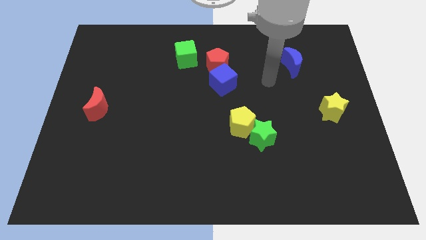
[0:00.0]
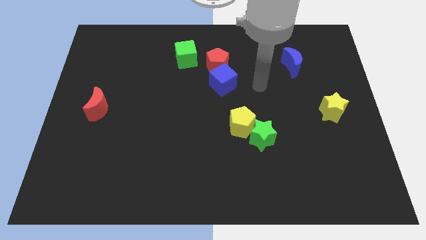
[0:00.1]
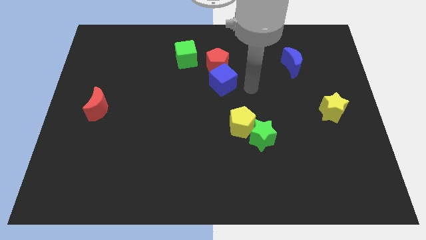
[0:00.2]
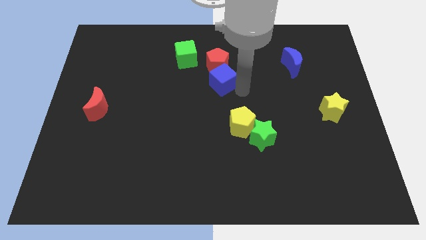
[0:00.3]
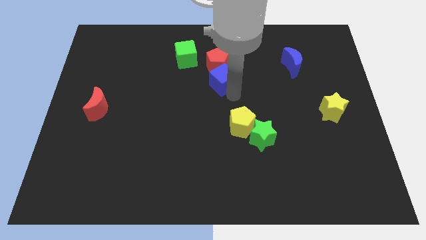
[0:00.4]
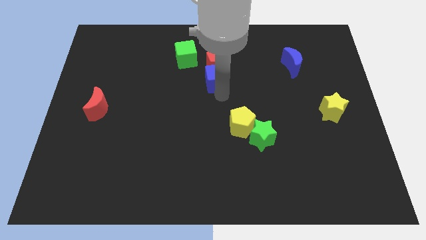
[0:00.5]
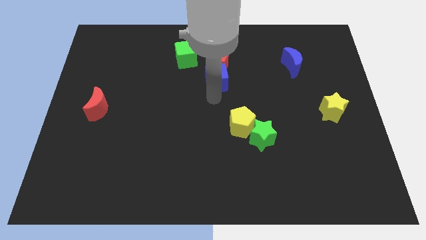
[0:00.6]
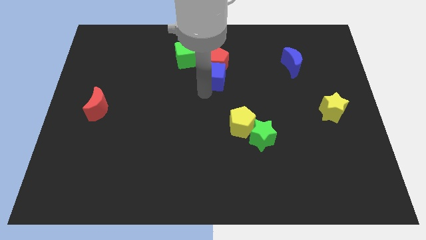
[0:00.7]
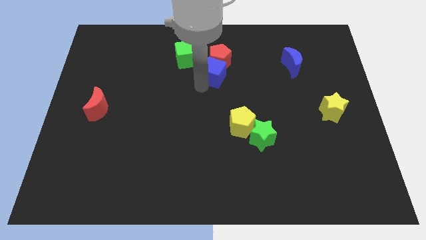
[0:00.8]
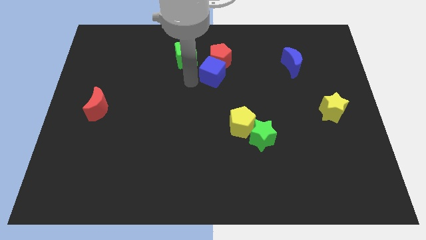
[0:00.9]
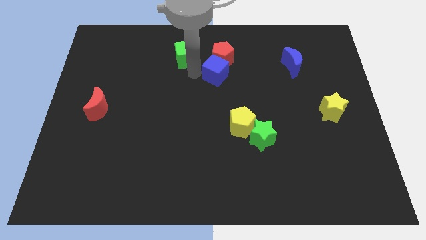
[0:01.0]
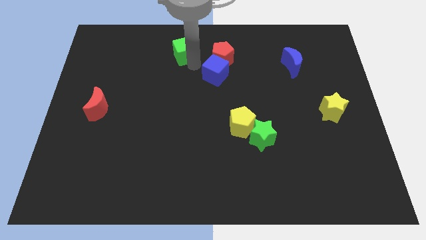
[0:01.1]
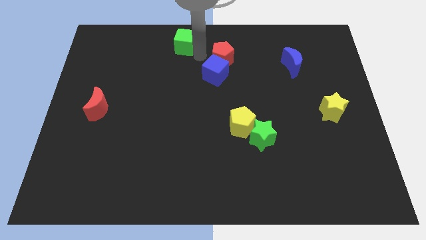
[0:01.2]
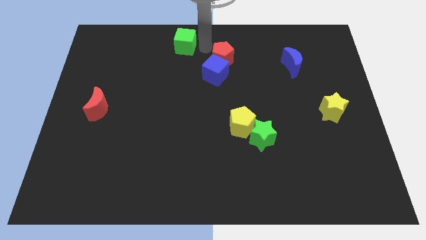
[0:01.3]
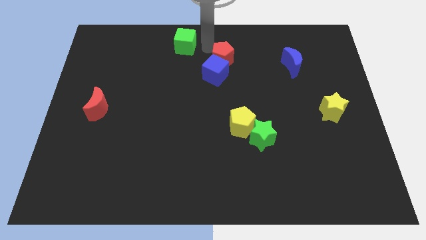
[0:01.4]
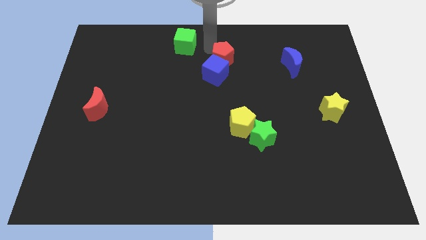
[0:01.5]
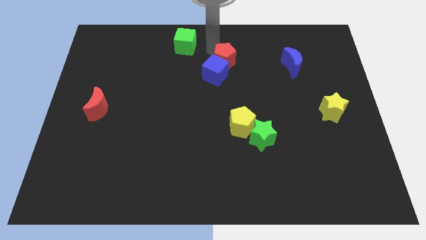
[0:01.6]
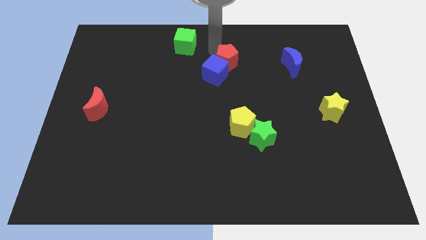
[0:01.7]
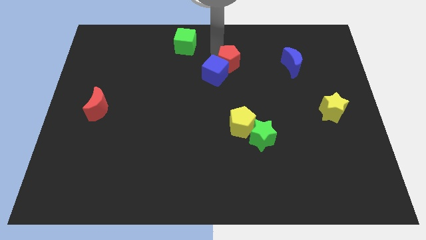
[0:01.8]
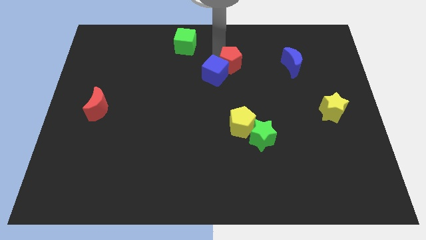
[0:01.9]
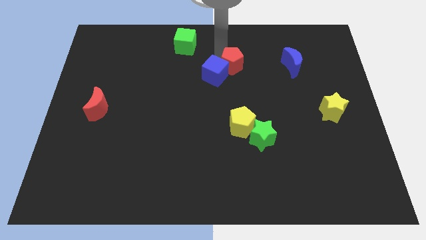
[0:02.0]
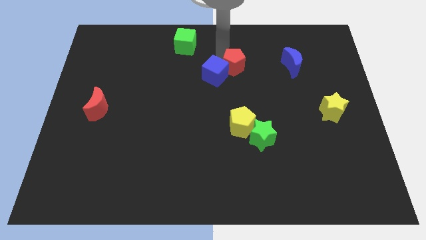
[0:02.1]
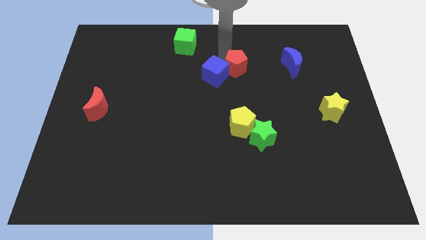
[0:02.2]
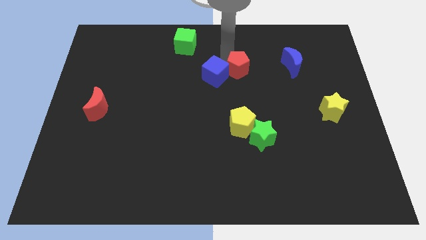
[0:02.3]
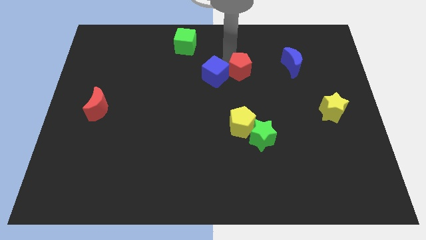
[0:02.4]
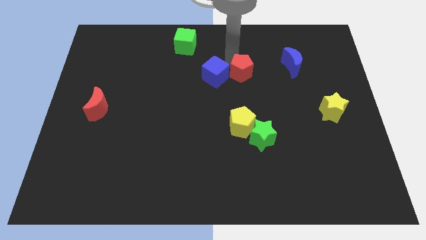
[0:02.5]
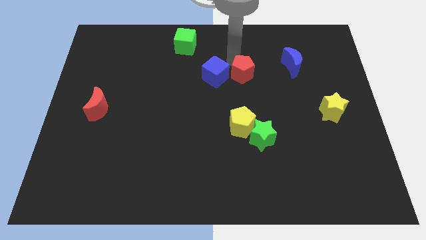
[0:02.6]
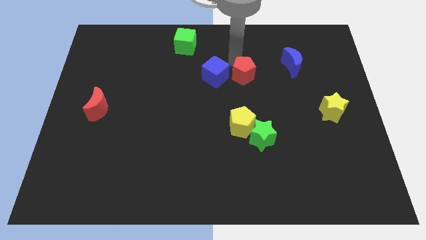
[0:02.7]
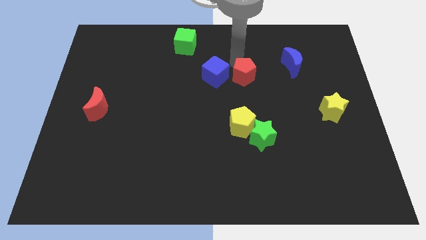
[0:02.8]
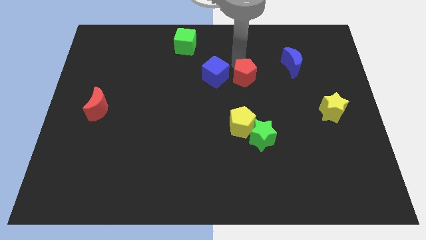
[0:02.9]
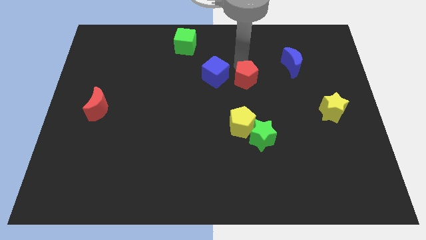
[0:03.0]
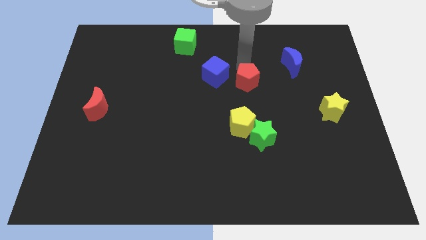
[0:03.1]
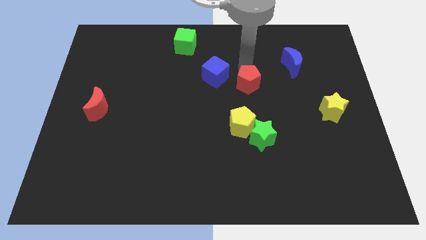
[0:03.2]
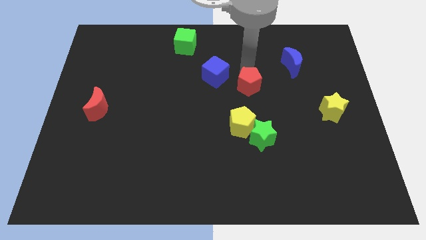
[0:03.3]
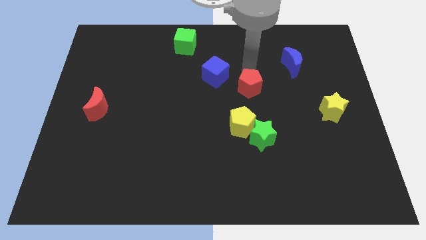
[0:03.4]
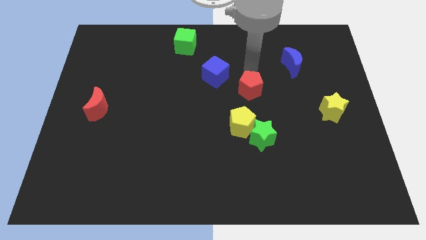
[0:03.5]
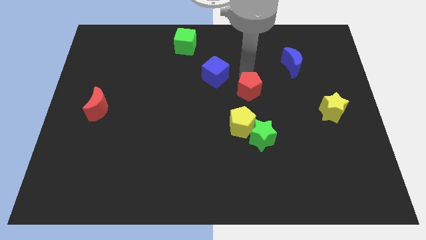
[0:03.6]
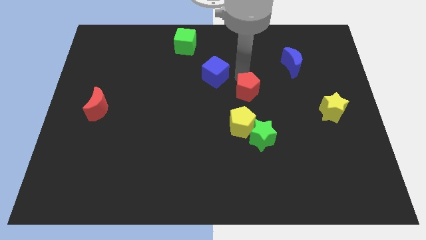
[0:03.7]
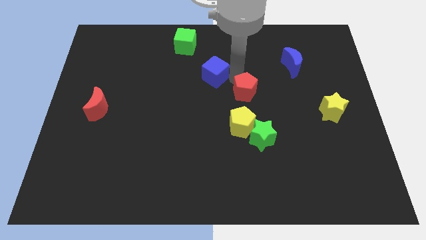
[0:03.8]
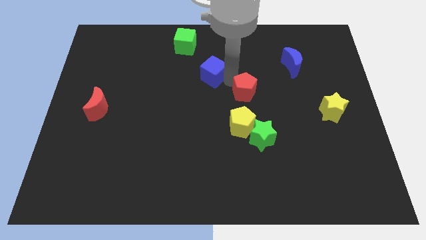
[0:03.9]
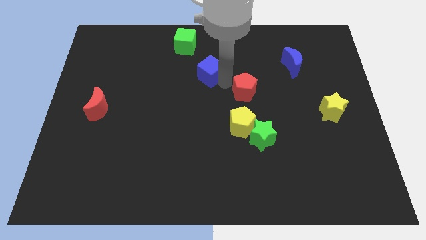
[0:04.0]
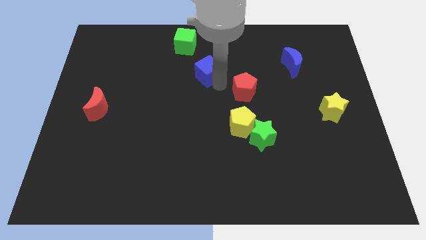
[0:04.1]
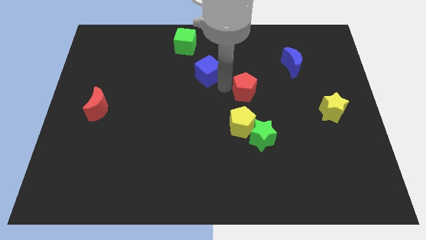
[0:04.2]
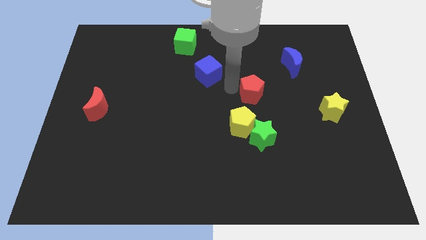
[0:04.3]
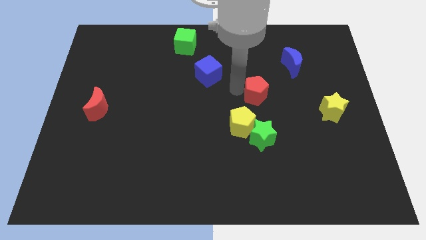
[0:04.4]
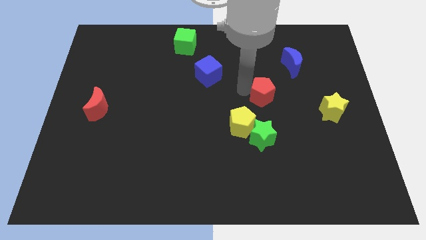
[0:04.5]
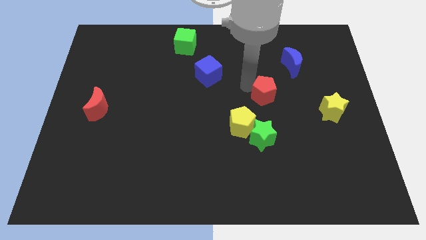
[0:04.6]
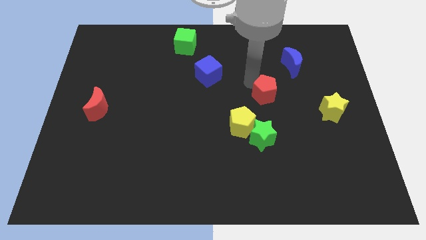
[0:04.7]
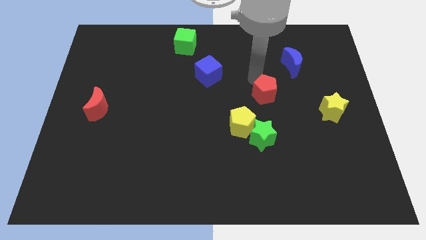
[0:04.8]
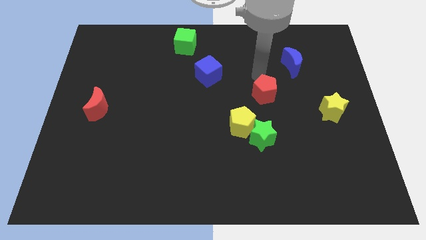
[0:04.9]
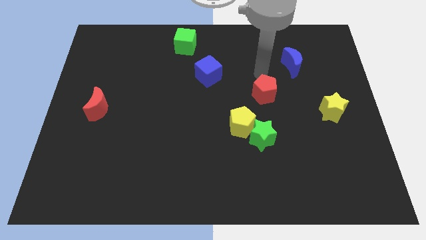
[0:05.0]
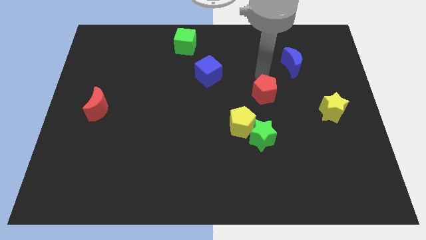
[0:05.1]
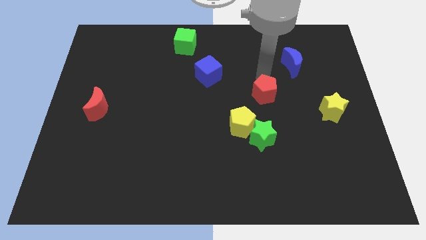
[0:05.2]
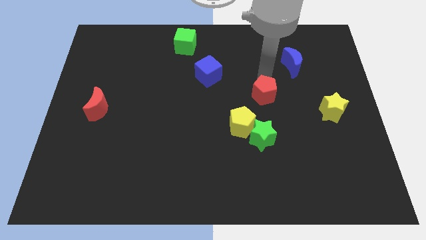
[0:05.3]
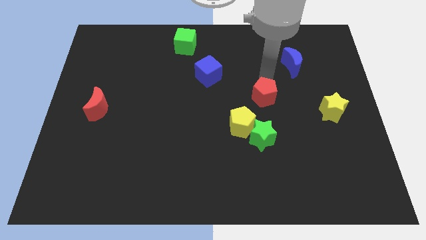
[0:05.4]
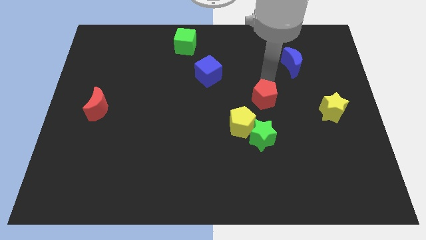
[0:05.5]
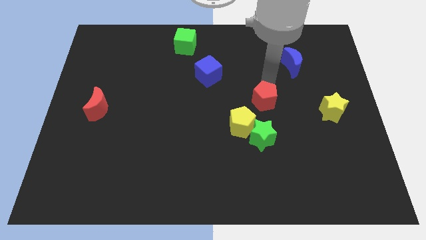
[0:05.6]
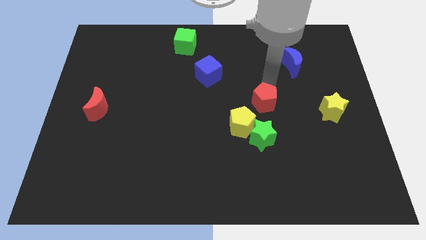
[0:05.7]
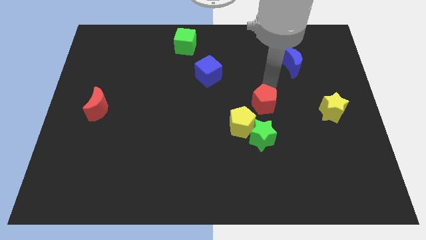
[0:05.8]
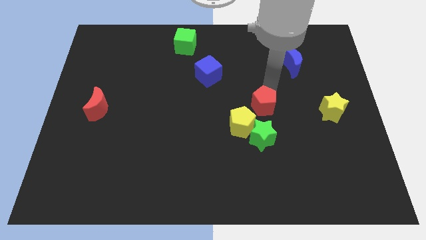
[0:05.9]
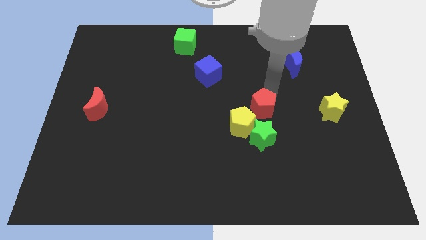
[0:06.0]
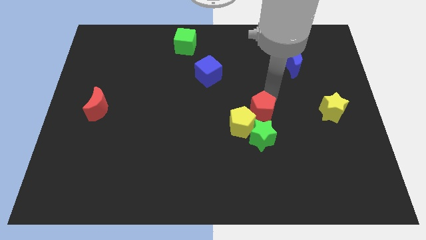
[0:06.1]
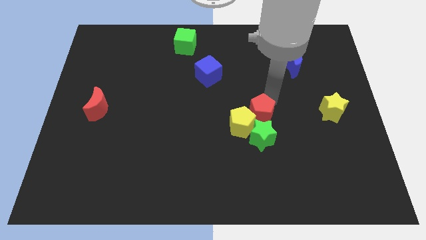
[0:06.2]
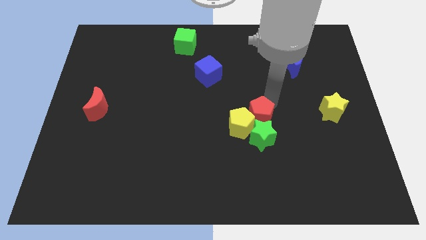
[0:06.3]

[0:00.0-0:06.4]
put the red pentagon to the green star

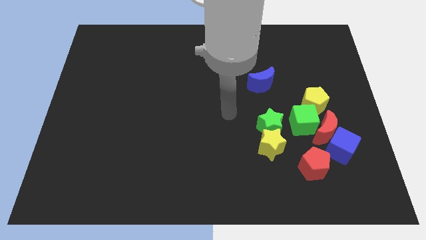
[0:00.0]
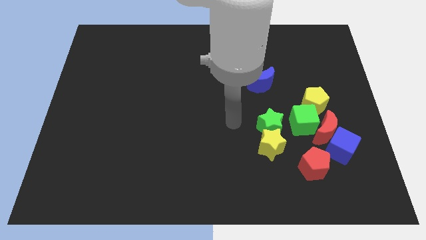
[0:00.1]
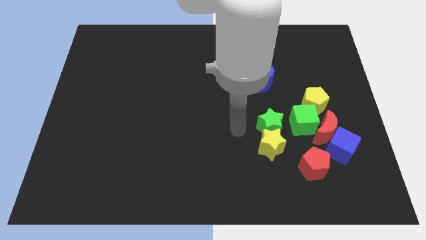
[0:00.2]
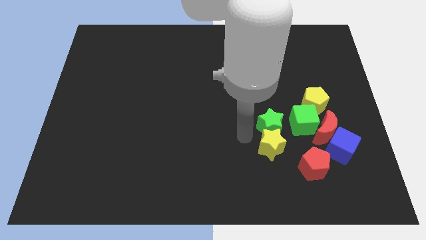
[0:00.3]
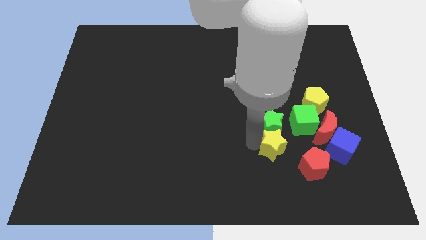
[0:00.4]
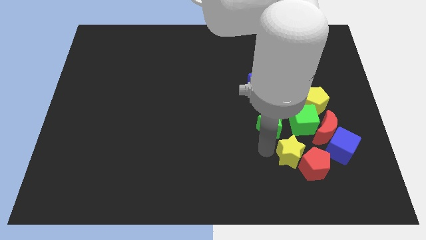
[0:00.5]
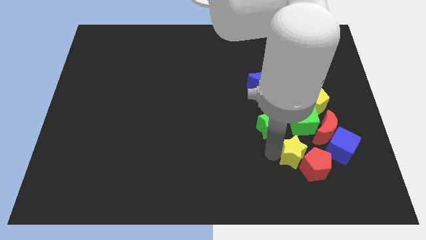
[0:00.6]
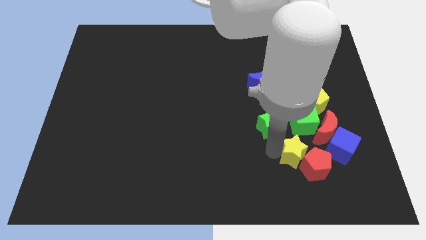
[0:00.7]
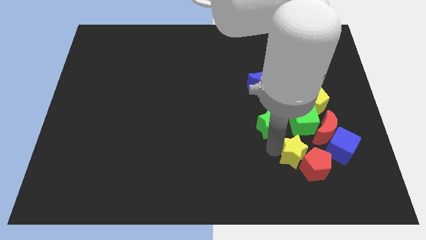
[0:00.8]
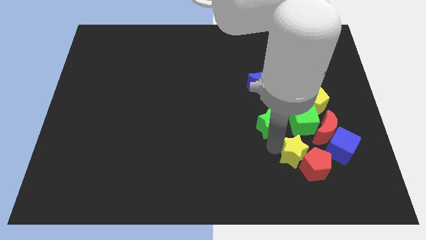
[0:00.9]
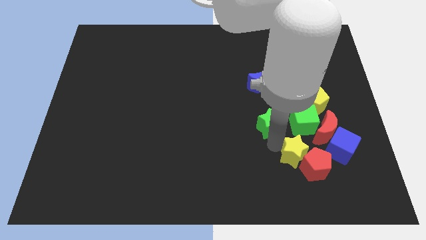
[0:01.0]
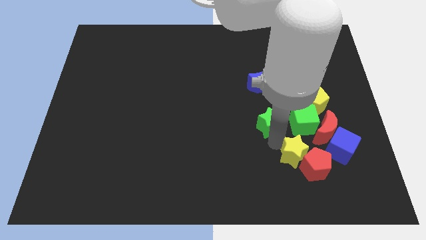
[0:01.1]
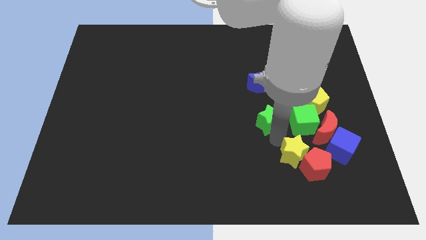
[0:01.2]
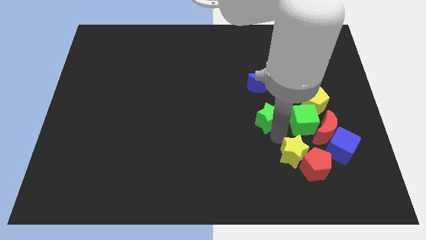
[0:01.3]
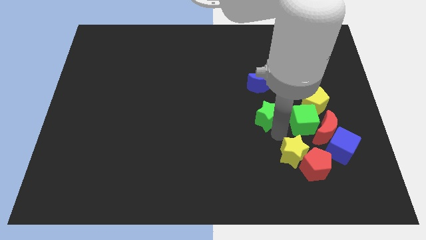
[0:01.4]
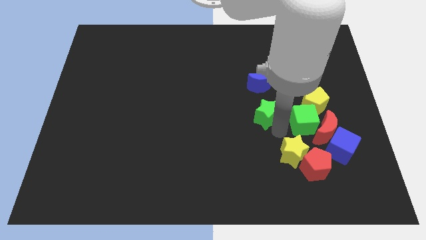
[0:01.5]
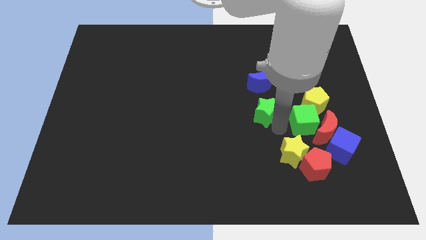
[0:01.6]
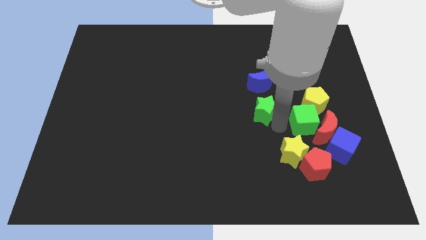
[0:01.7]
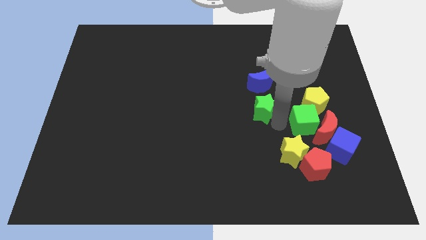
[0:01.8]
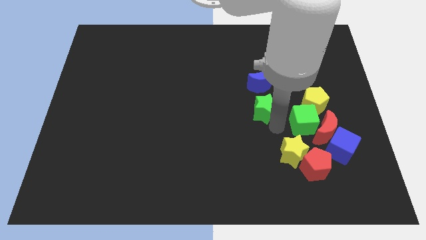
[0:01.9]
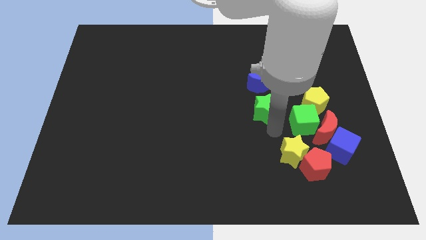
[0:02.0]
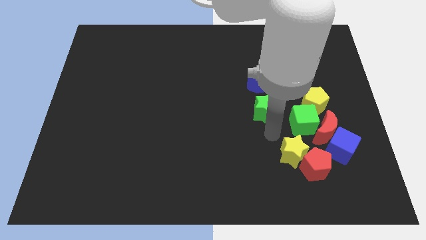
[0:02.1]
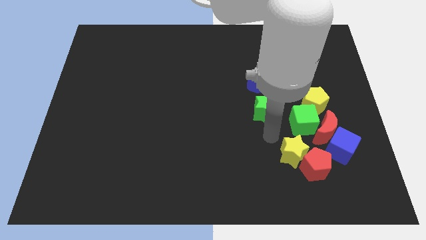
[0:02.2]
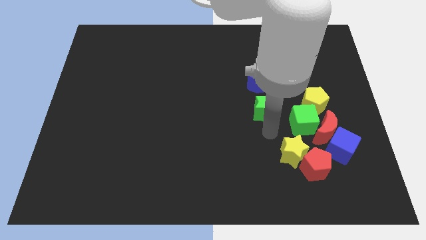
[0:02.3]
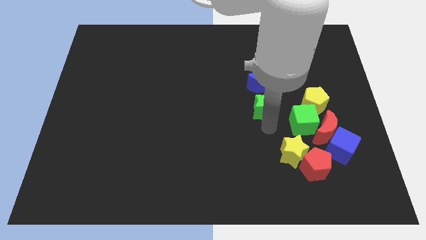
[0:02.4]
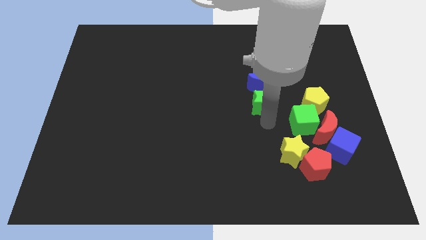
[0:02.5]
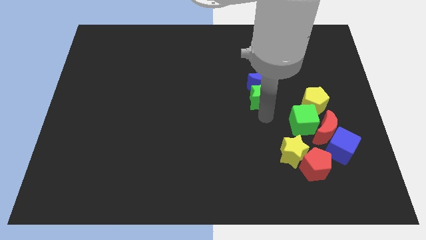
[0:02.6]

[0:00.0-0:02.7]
slide the green star to the blue moon
